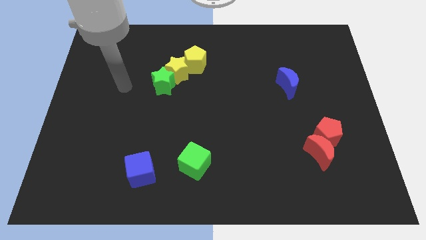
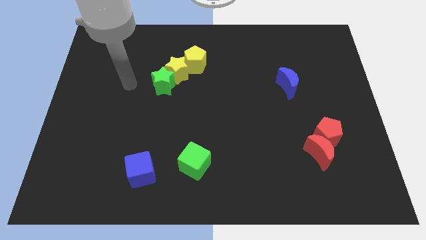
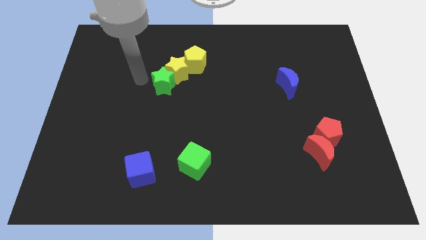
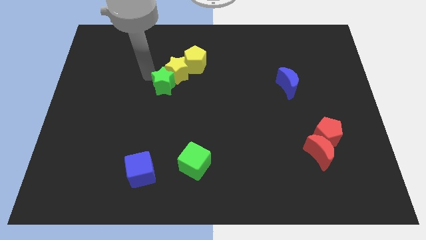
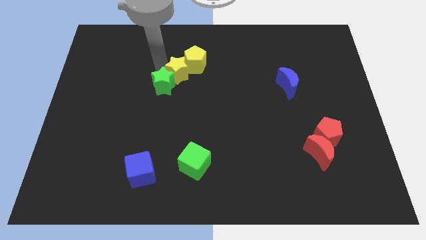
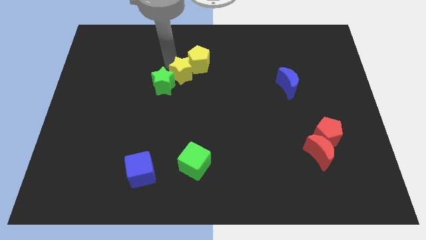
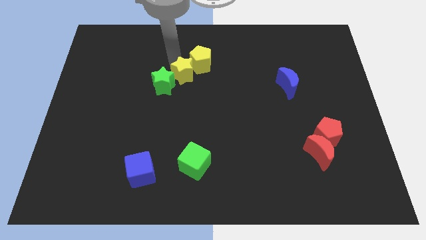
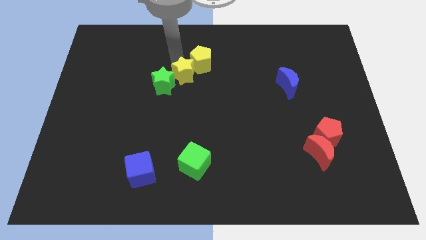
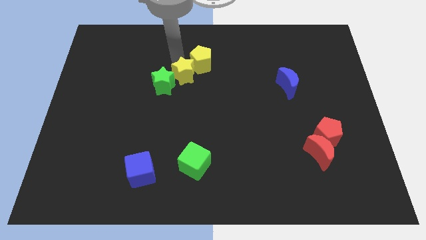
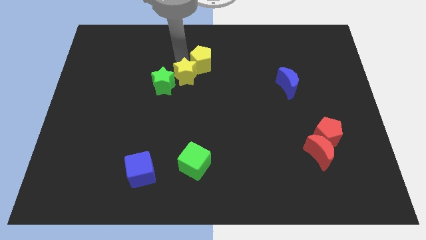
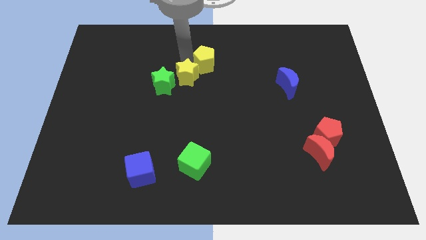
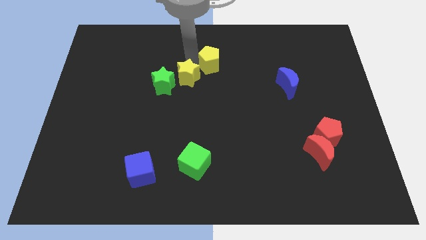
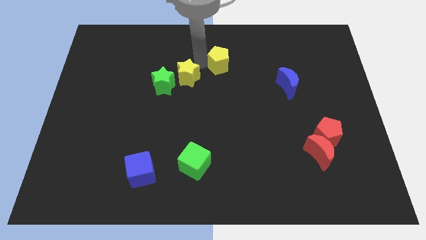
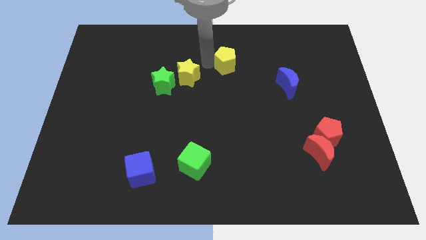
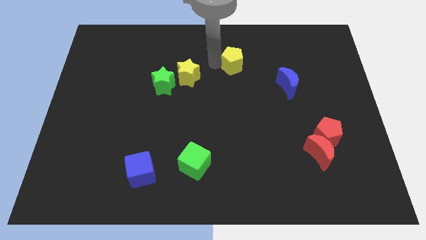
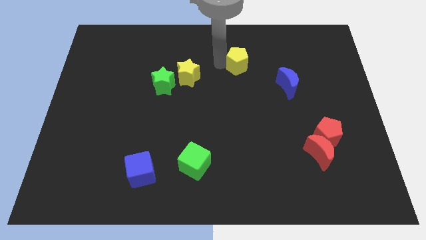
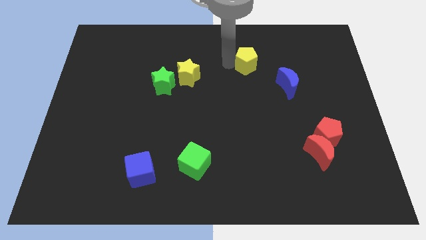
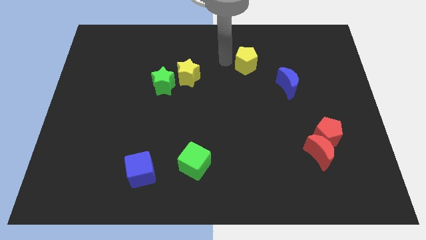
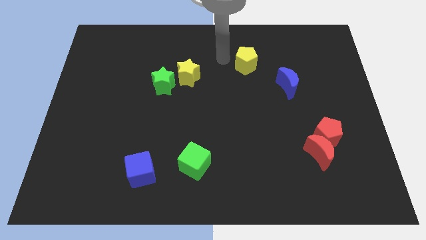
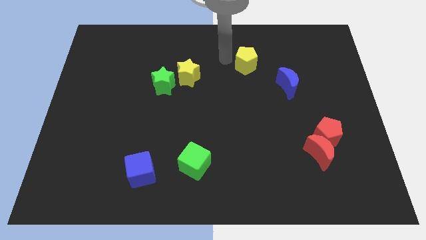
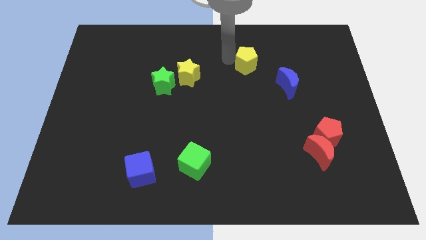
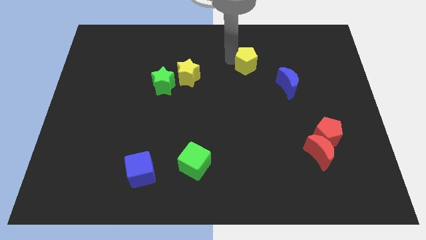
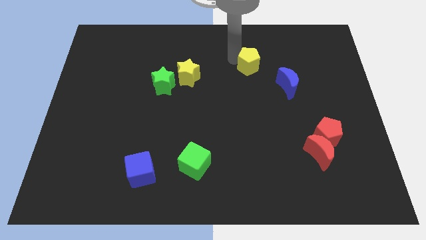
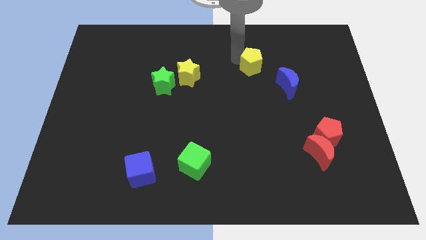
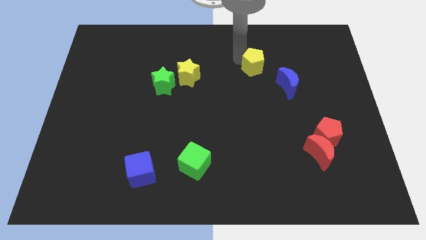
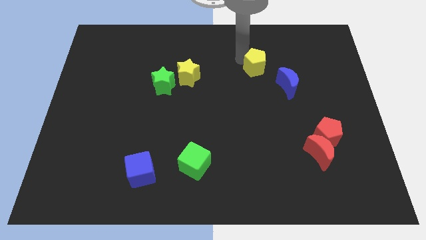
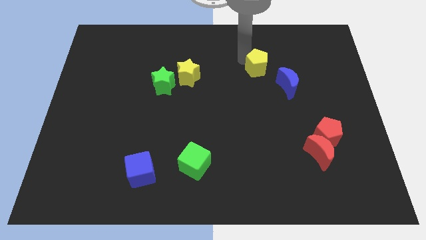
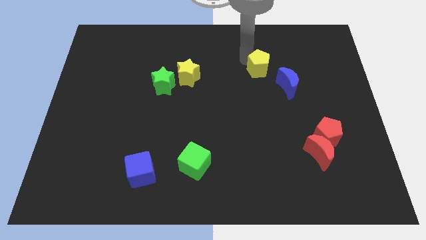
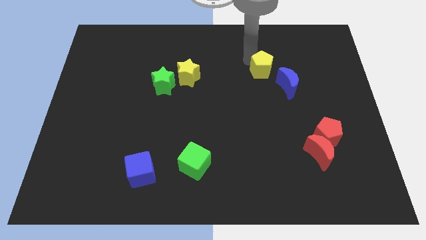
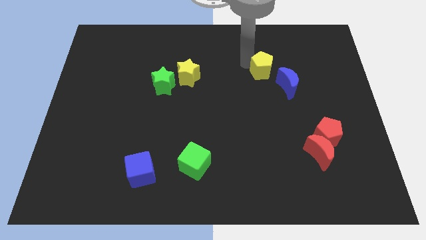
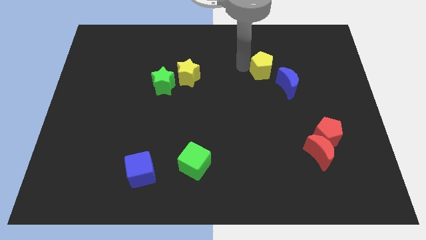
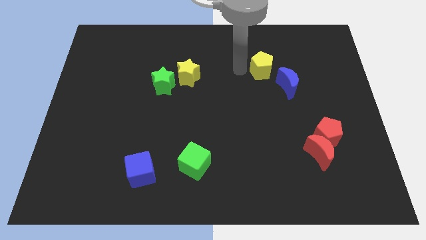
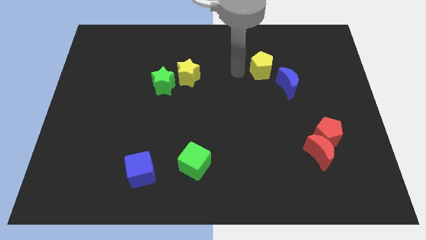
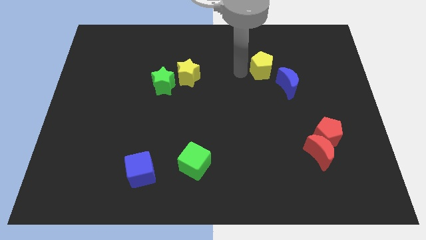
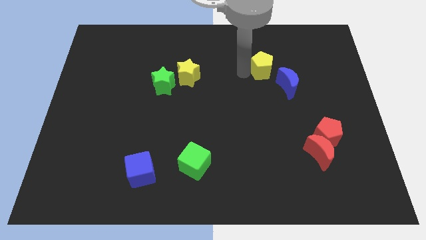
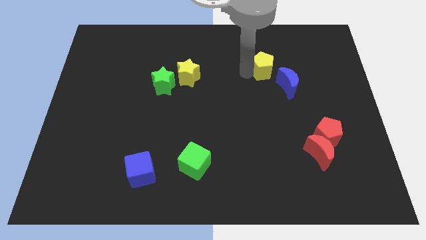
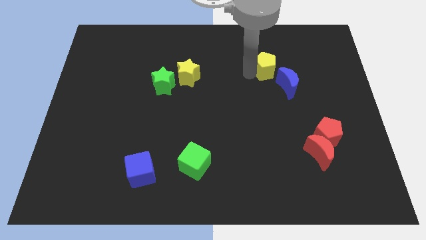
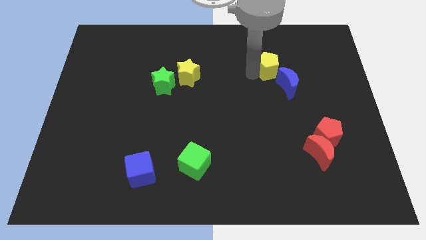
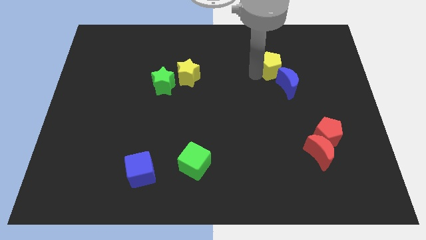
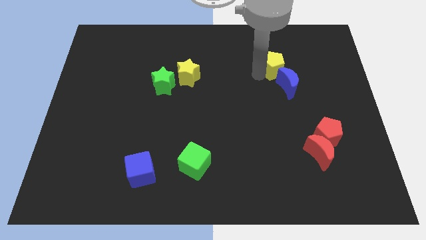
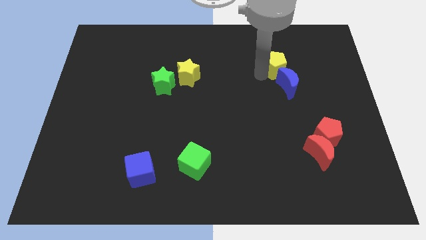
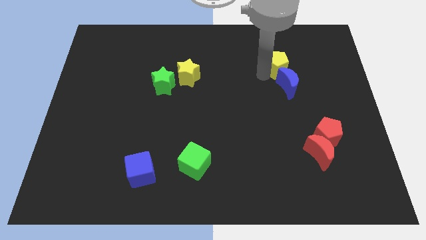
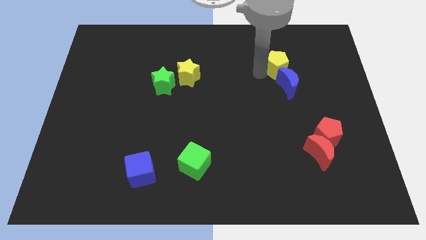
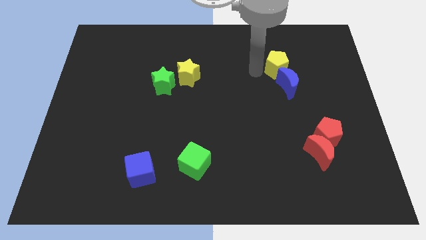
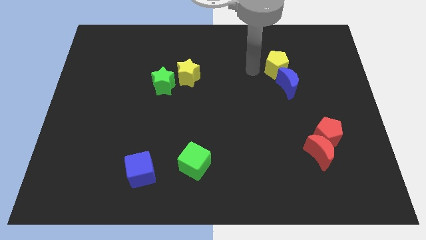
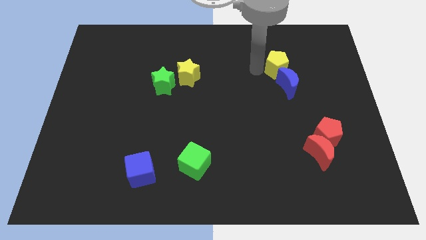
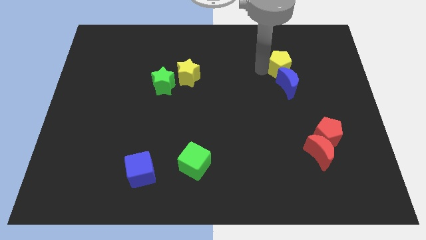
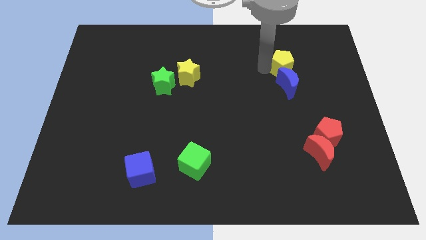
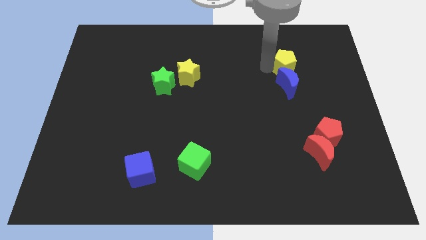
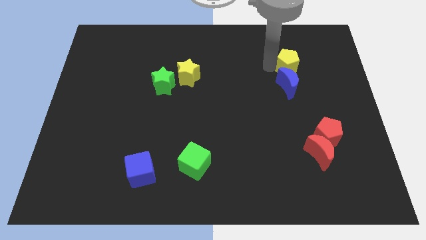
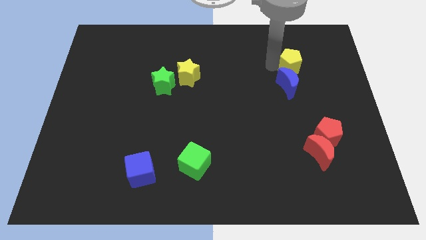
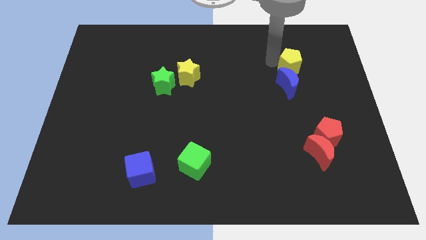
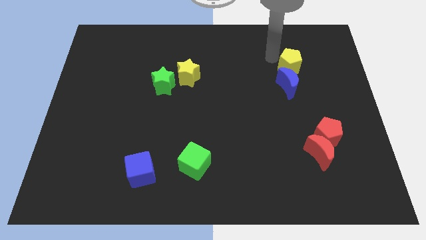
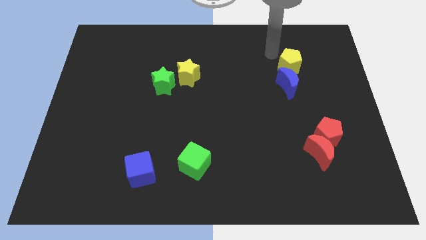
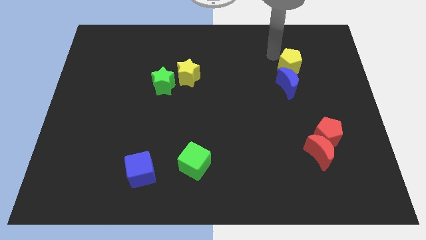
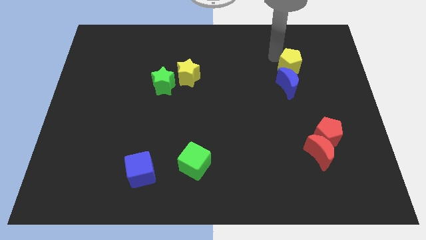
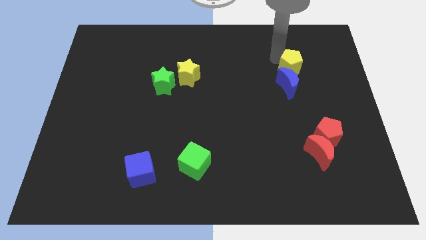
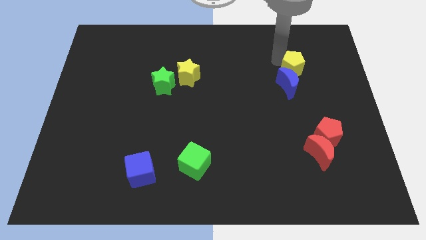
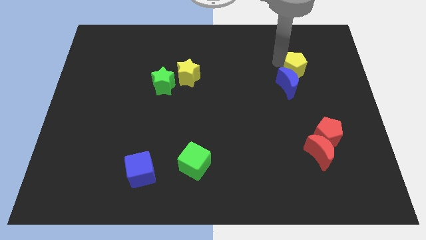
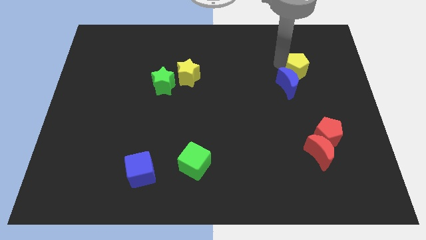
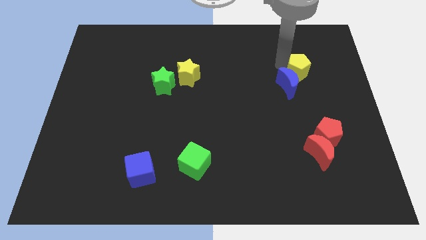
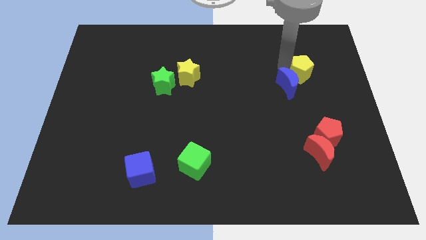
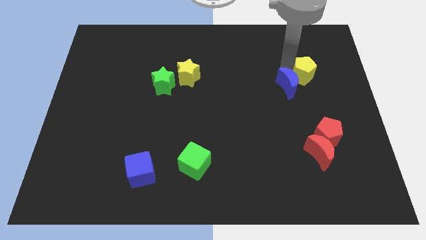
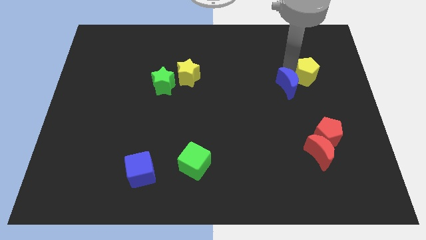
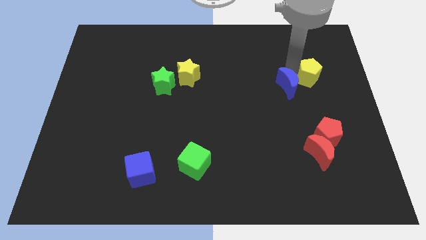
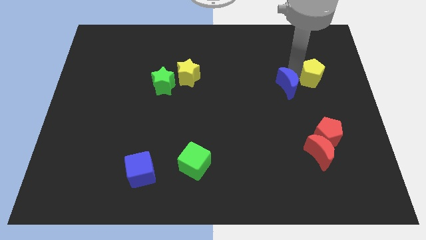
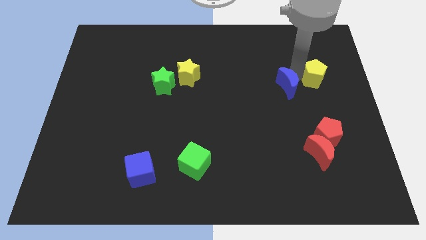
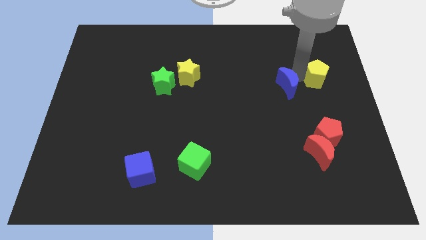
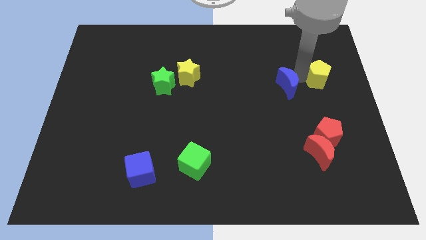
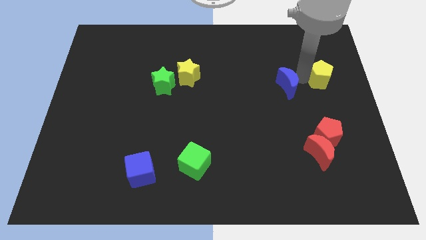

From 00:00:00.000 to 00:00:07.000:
push the yellow pentagon to the right side of the board
